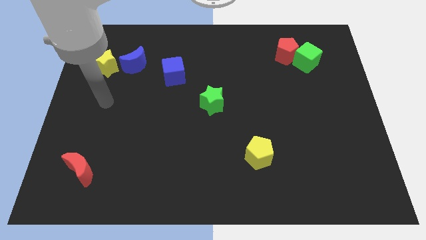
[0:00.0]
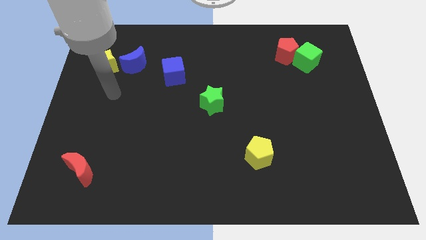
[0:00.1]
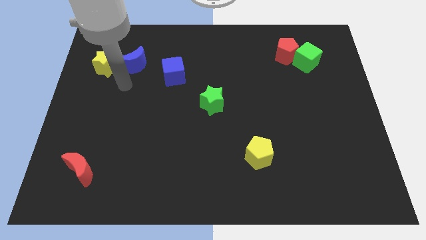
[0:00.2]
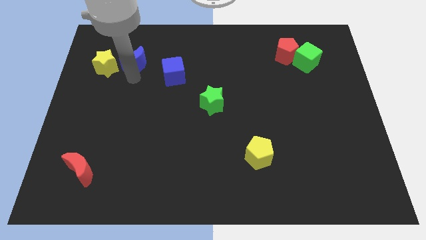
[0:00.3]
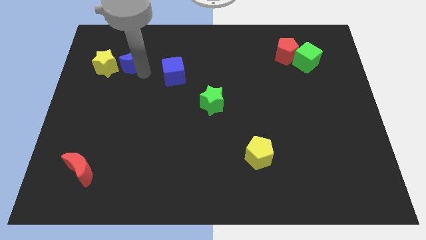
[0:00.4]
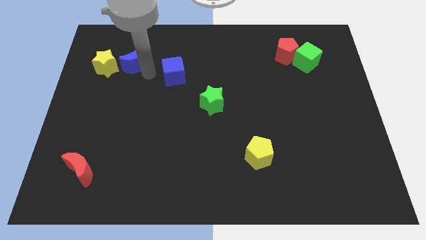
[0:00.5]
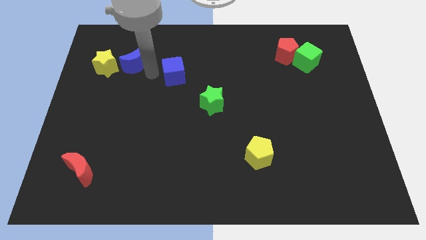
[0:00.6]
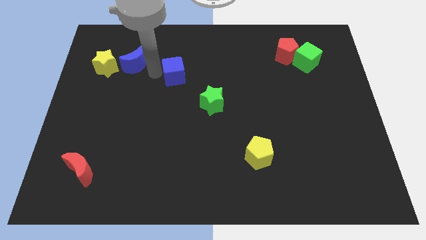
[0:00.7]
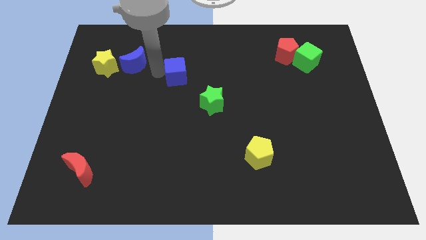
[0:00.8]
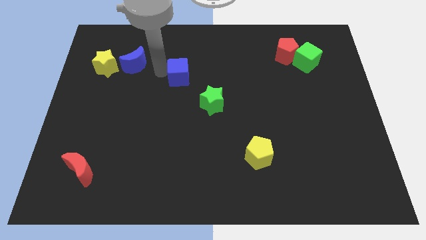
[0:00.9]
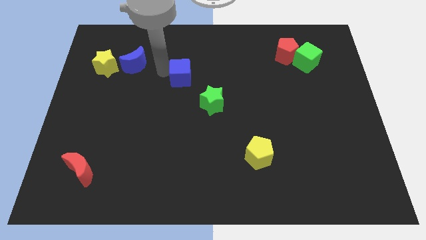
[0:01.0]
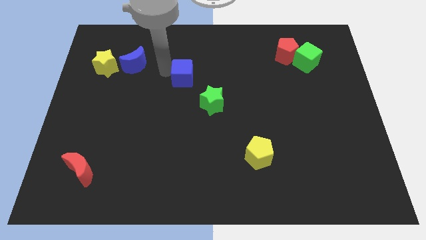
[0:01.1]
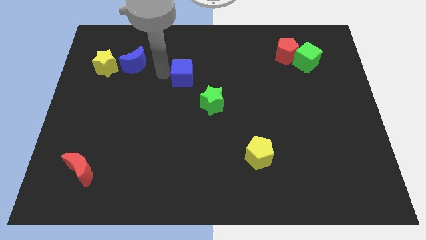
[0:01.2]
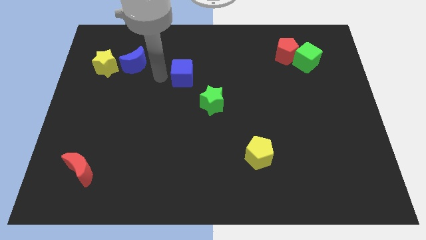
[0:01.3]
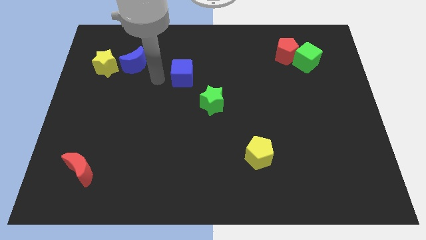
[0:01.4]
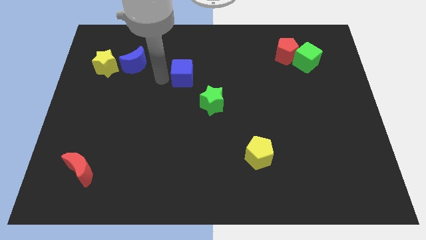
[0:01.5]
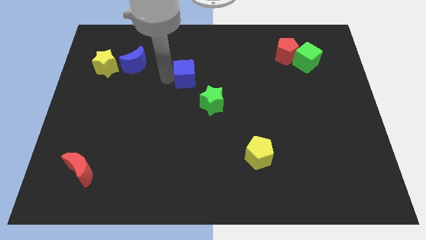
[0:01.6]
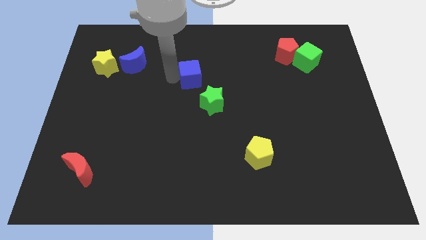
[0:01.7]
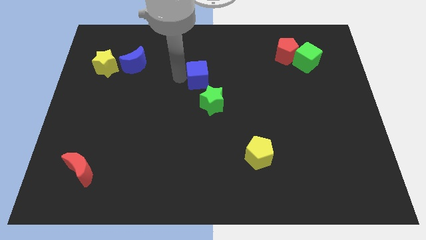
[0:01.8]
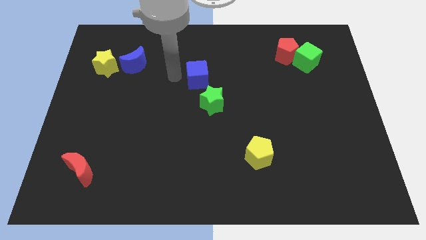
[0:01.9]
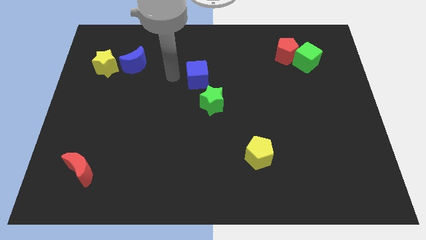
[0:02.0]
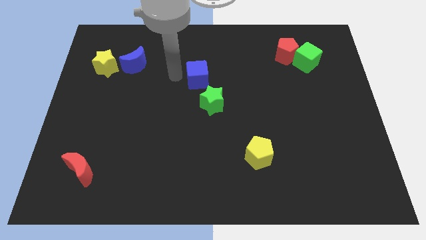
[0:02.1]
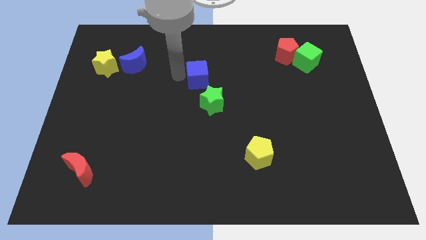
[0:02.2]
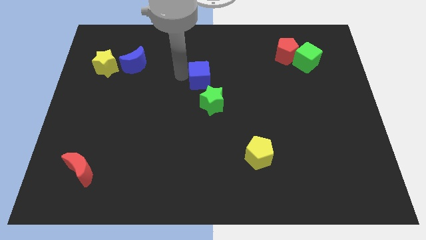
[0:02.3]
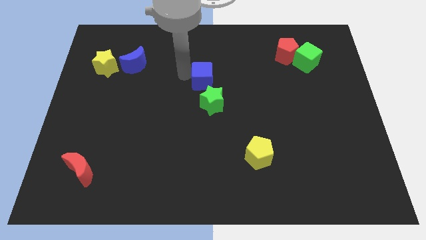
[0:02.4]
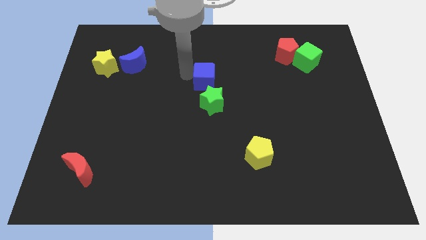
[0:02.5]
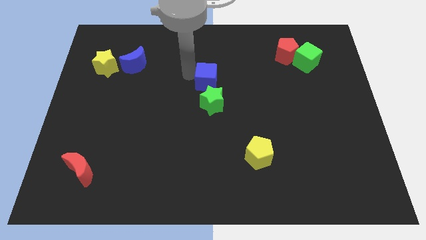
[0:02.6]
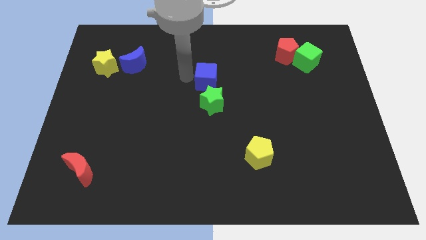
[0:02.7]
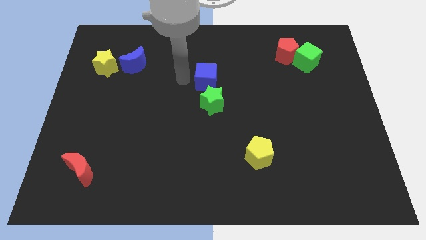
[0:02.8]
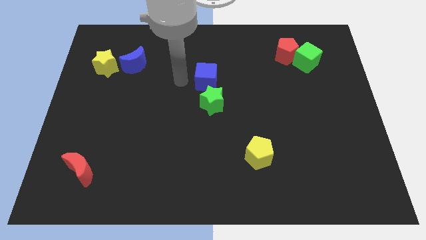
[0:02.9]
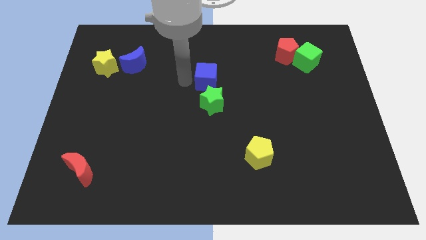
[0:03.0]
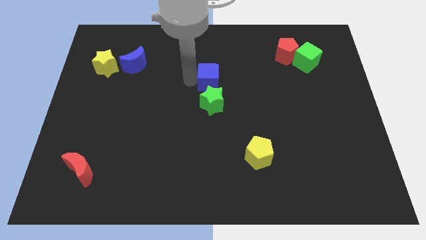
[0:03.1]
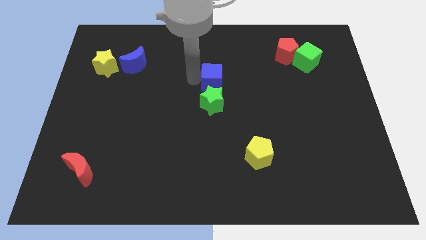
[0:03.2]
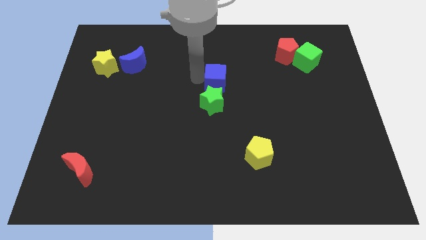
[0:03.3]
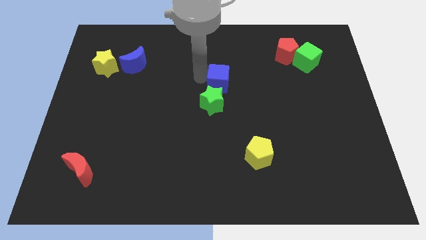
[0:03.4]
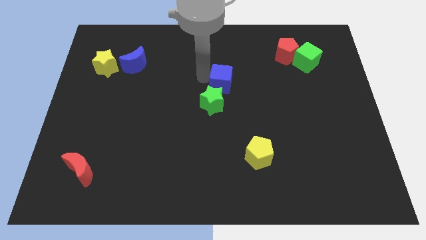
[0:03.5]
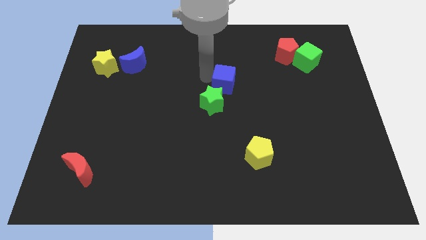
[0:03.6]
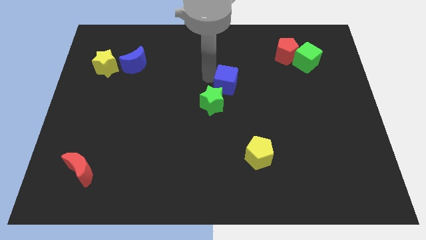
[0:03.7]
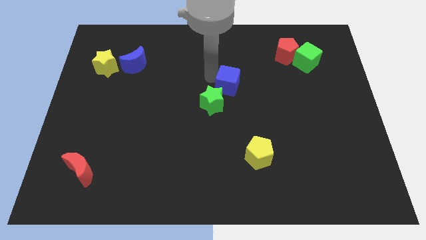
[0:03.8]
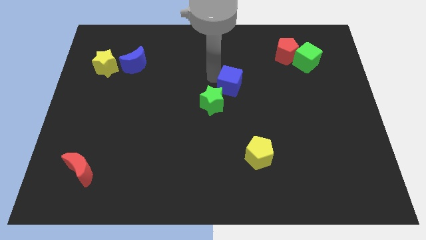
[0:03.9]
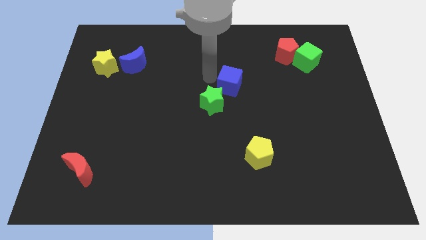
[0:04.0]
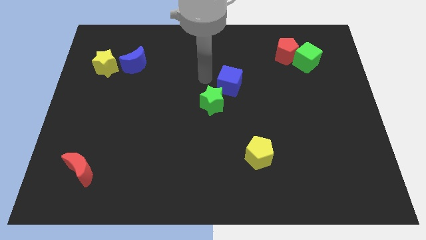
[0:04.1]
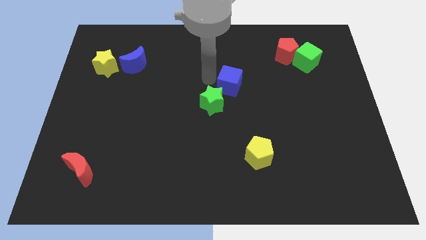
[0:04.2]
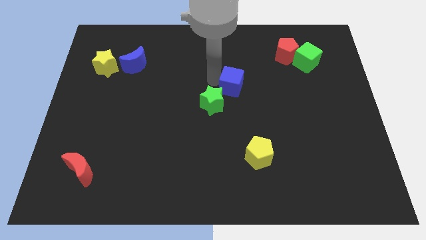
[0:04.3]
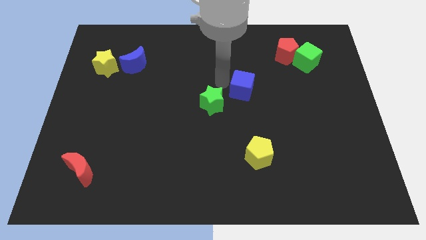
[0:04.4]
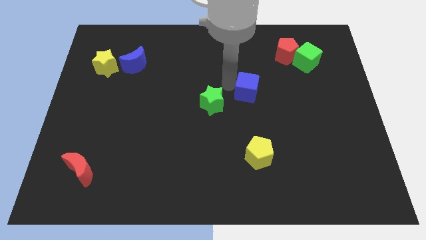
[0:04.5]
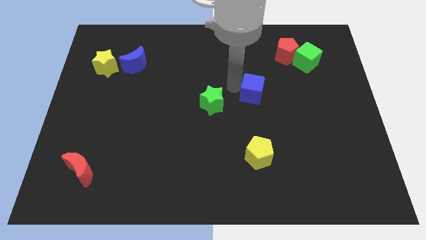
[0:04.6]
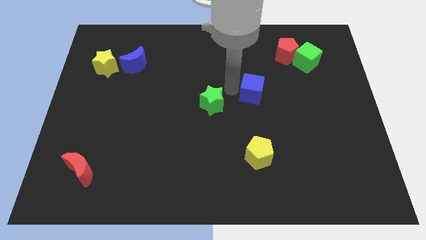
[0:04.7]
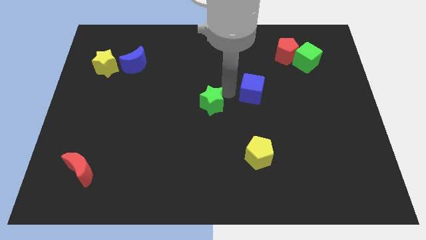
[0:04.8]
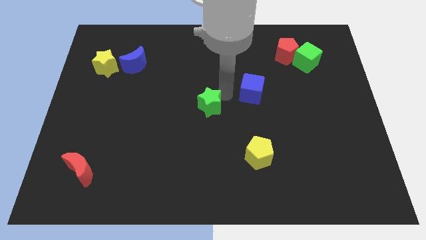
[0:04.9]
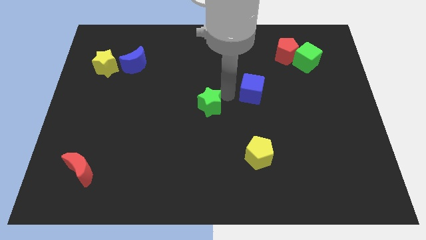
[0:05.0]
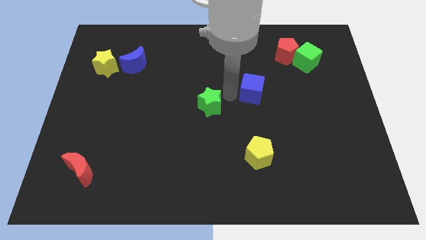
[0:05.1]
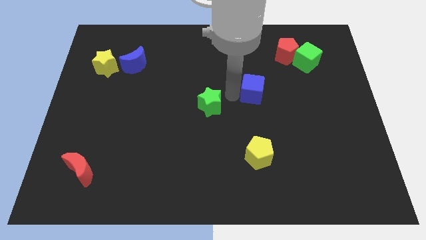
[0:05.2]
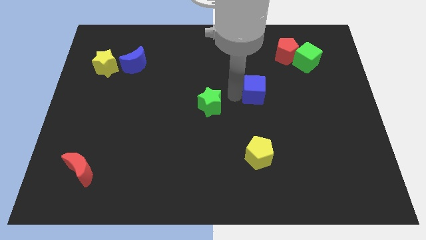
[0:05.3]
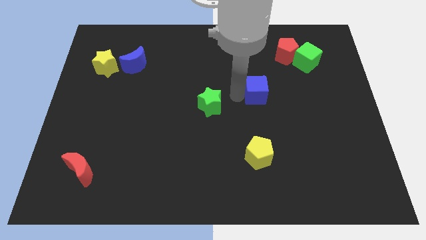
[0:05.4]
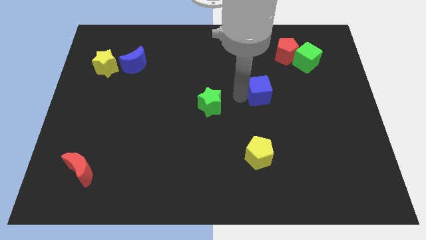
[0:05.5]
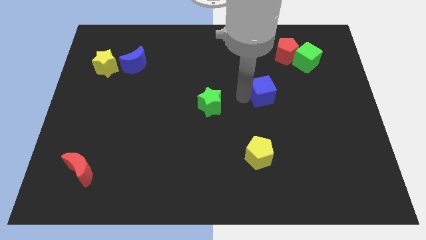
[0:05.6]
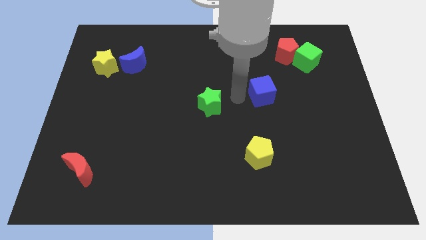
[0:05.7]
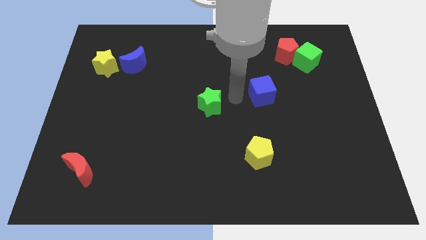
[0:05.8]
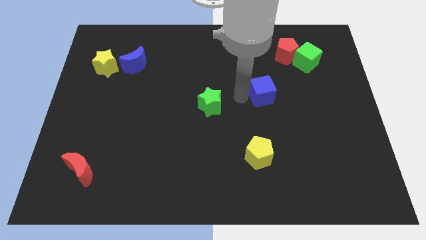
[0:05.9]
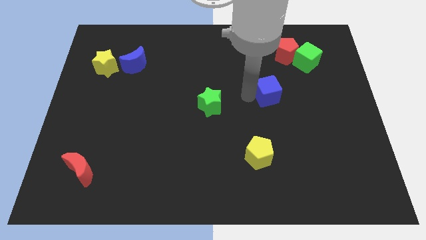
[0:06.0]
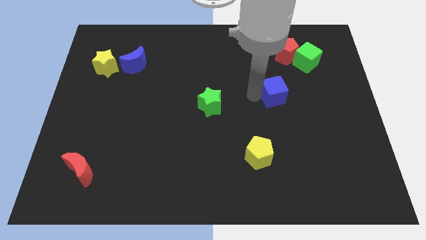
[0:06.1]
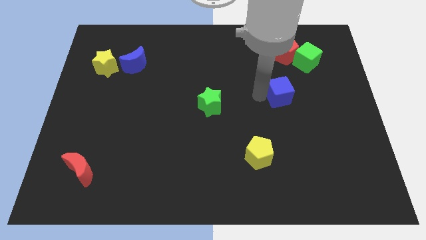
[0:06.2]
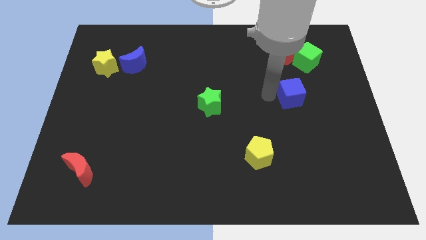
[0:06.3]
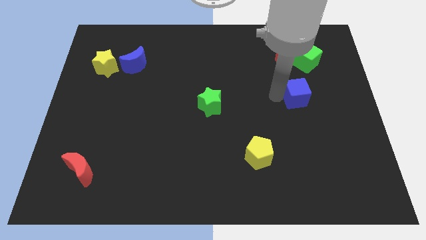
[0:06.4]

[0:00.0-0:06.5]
push the blue cube to the bottom of the green cube
